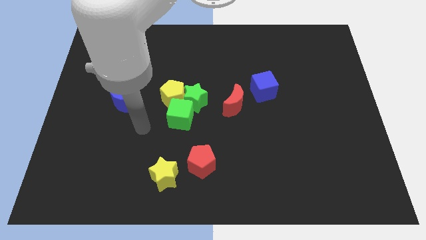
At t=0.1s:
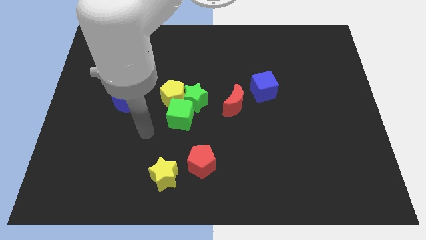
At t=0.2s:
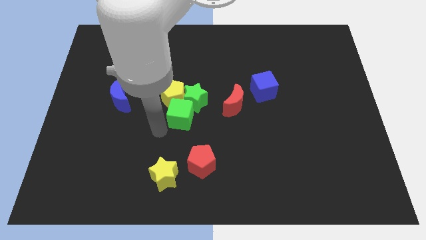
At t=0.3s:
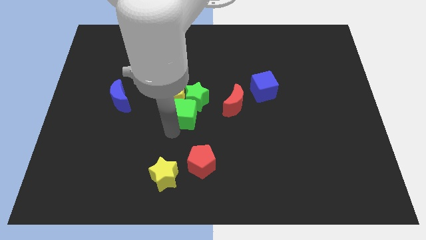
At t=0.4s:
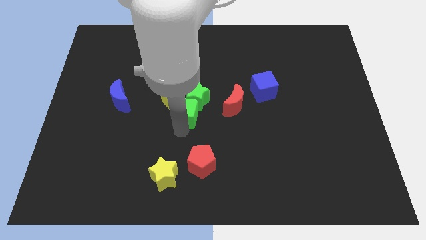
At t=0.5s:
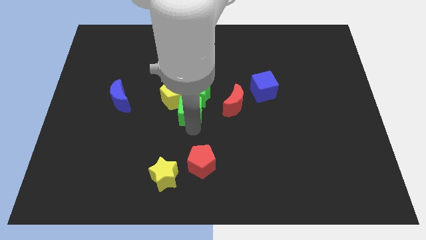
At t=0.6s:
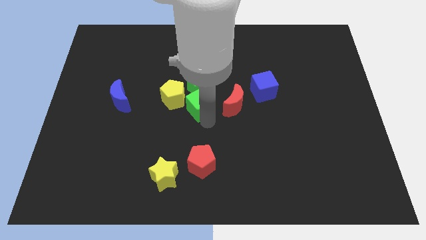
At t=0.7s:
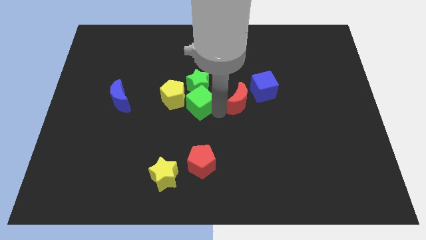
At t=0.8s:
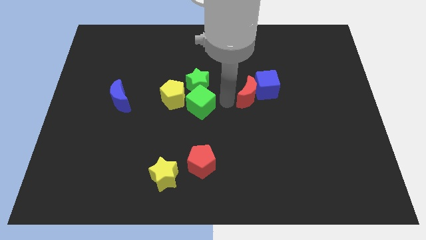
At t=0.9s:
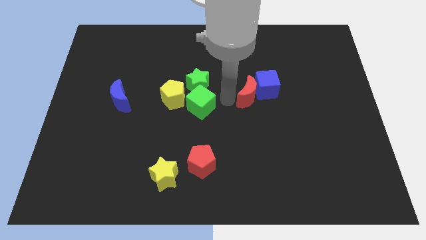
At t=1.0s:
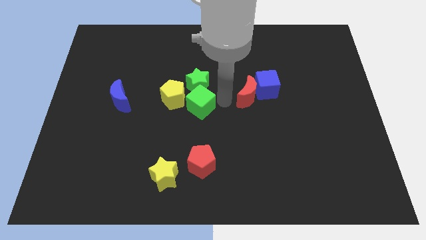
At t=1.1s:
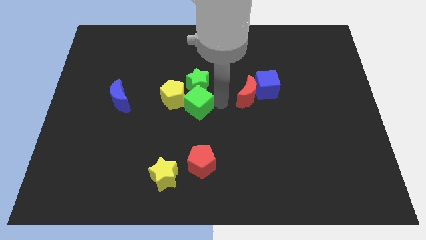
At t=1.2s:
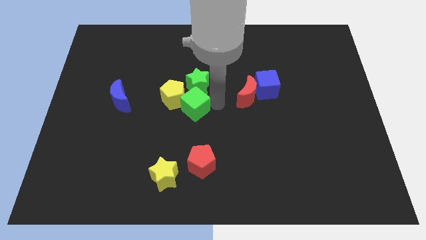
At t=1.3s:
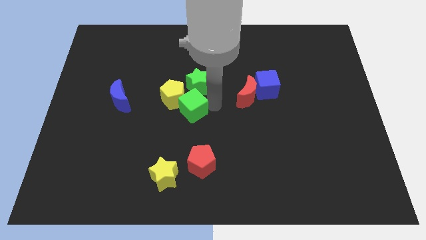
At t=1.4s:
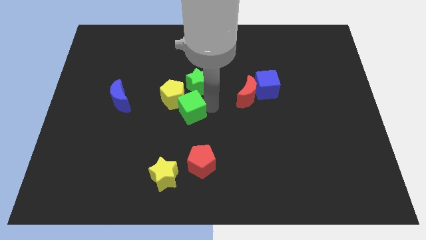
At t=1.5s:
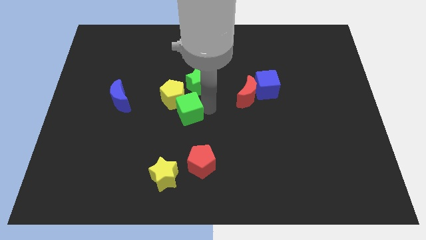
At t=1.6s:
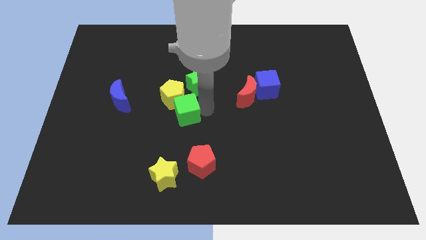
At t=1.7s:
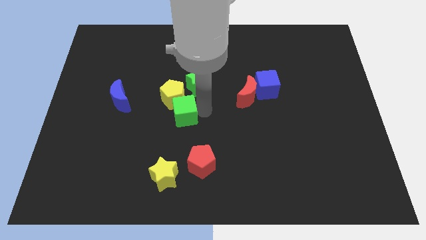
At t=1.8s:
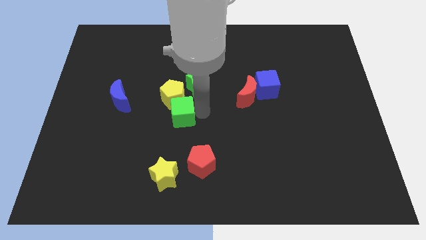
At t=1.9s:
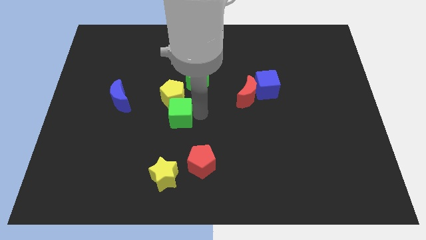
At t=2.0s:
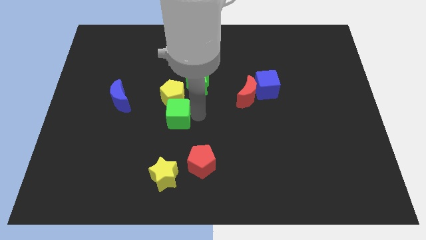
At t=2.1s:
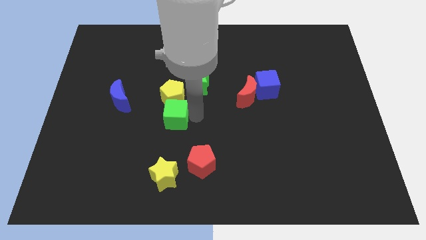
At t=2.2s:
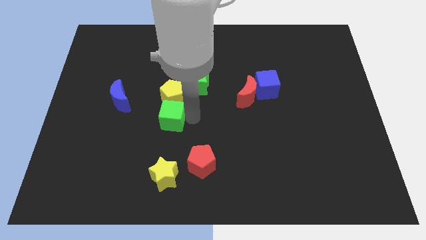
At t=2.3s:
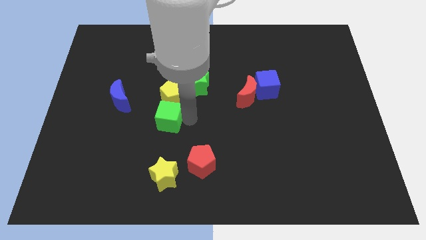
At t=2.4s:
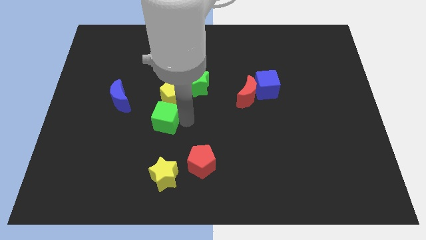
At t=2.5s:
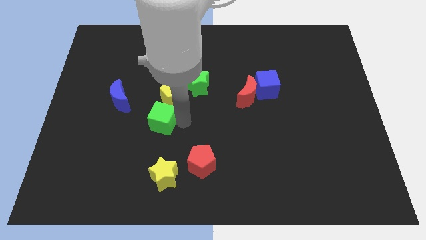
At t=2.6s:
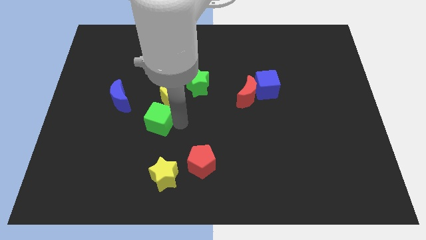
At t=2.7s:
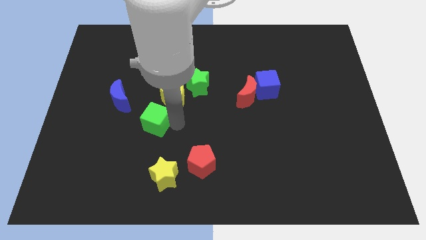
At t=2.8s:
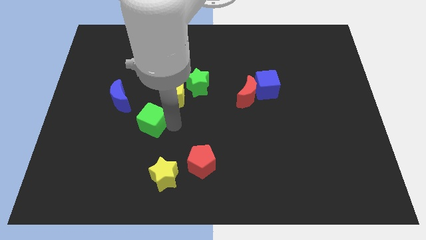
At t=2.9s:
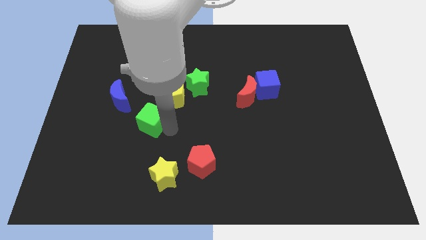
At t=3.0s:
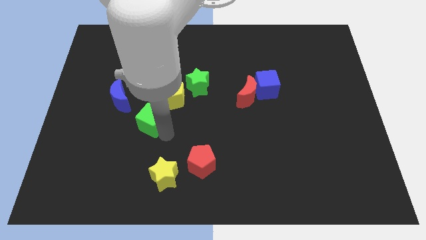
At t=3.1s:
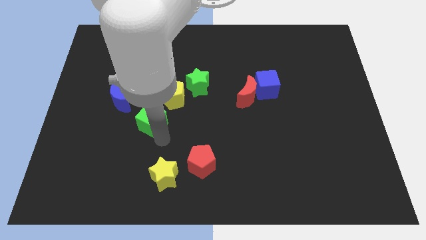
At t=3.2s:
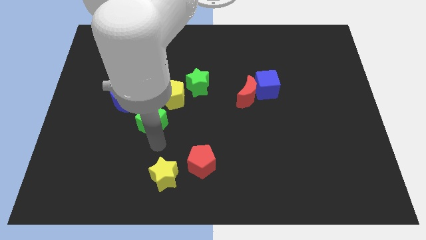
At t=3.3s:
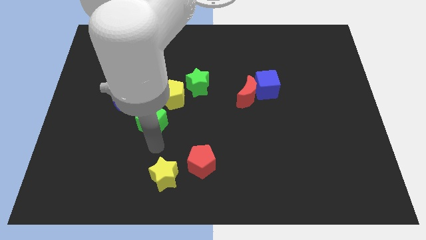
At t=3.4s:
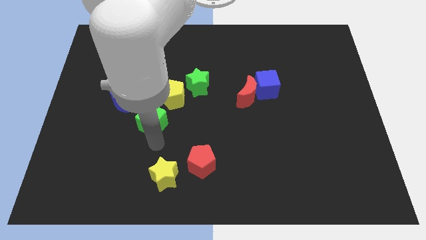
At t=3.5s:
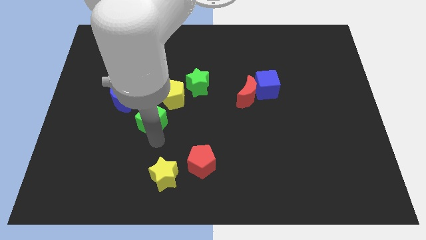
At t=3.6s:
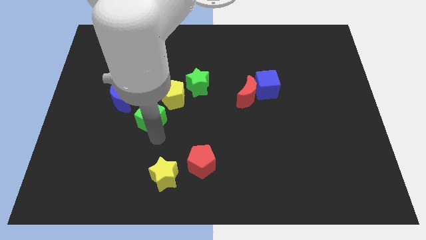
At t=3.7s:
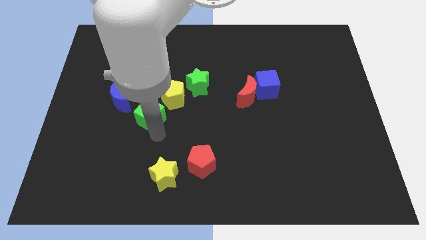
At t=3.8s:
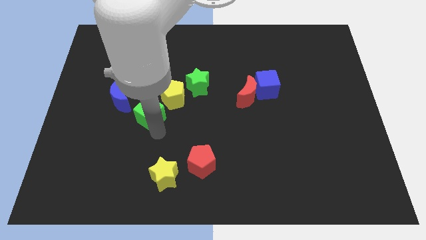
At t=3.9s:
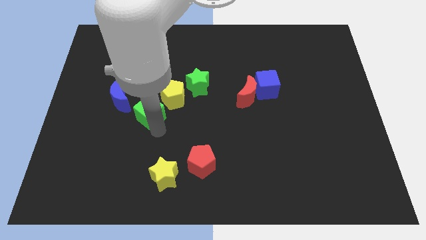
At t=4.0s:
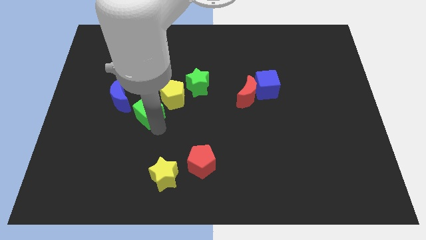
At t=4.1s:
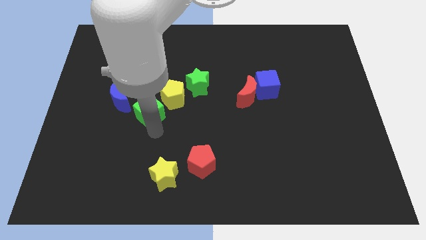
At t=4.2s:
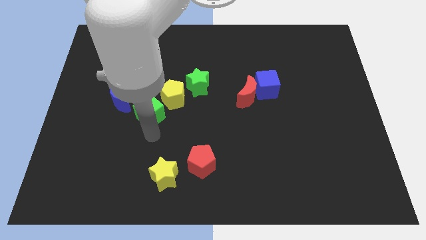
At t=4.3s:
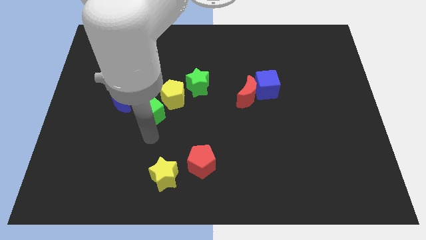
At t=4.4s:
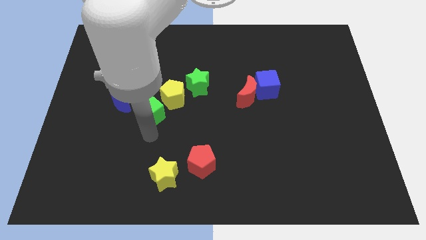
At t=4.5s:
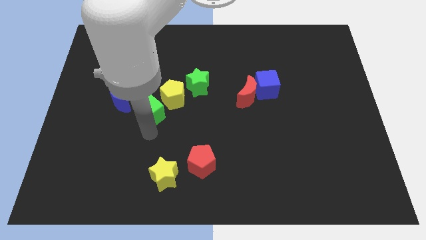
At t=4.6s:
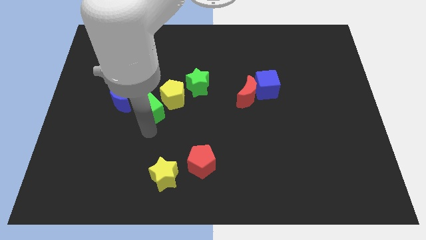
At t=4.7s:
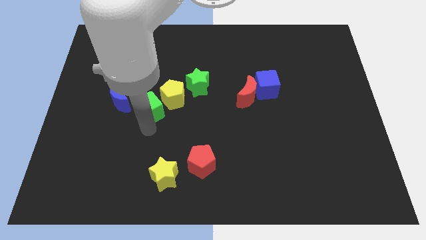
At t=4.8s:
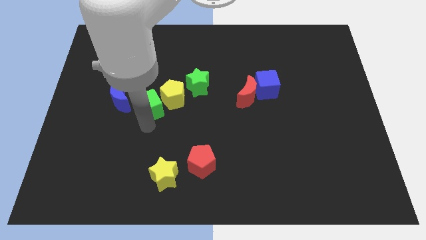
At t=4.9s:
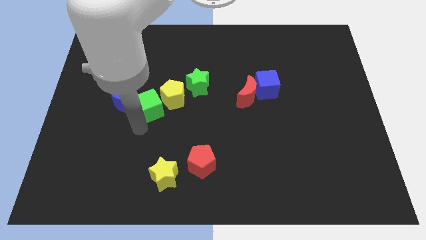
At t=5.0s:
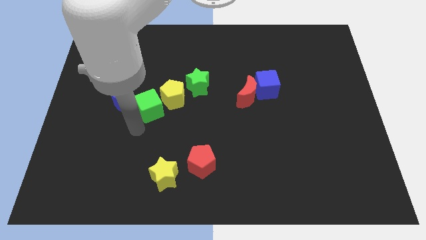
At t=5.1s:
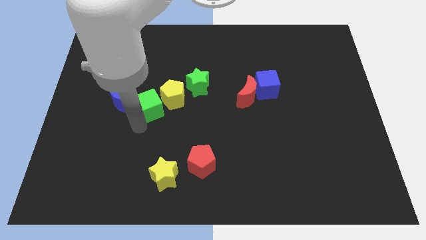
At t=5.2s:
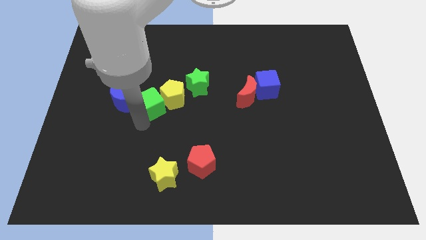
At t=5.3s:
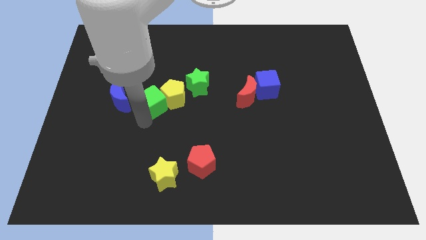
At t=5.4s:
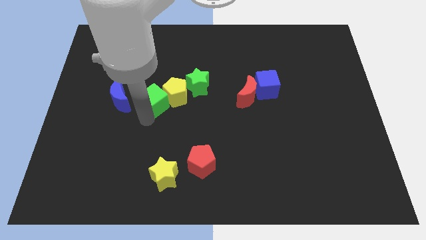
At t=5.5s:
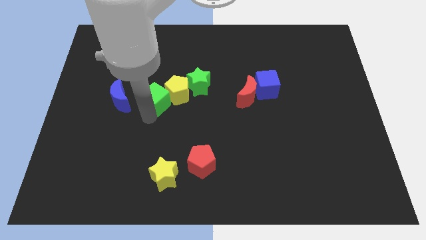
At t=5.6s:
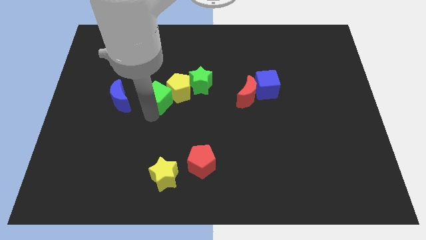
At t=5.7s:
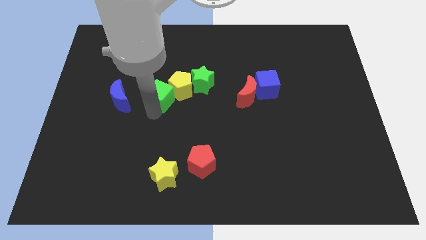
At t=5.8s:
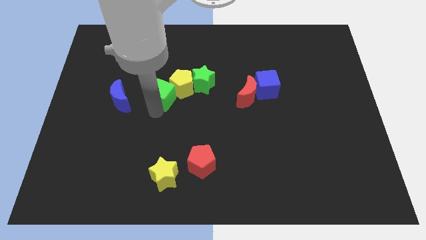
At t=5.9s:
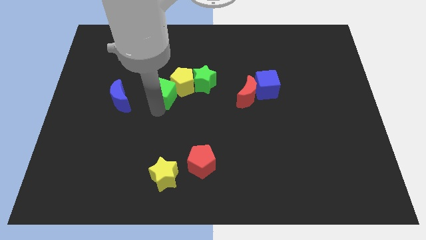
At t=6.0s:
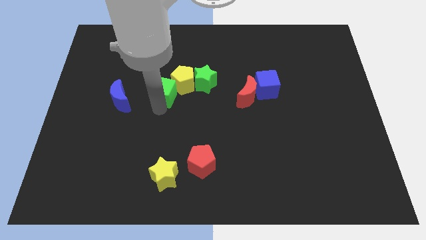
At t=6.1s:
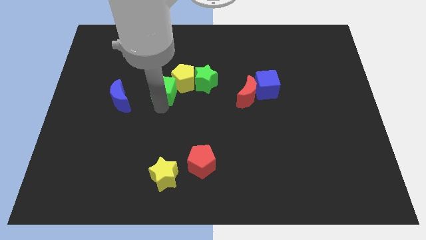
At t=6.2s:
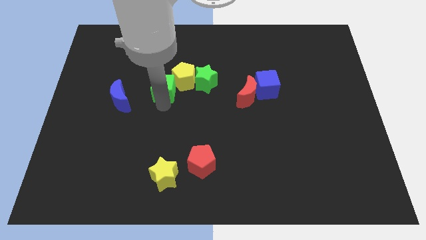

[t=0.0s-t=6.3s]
slide the green cube a little upwards

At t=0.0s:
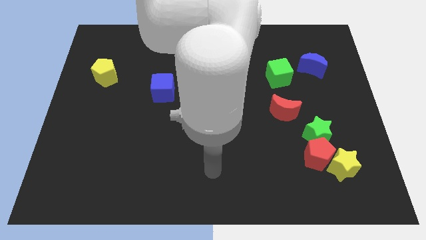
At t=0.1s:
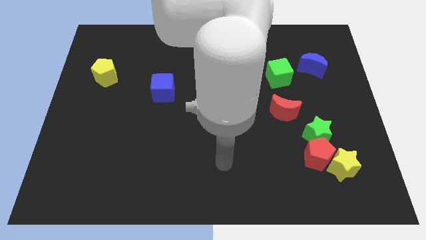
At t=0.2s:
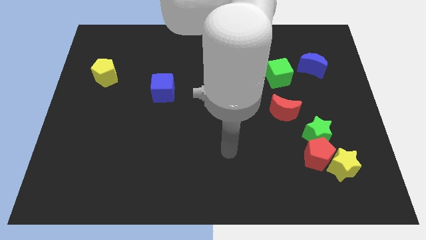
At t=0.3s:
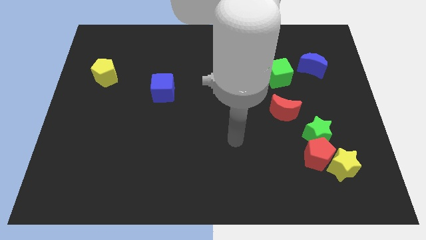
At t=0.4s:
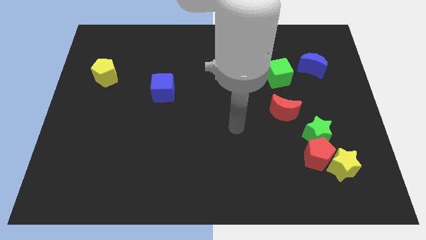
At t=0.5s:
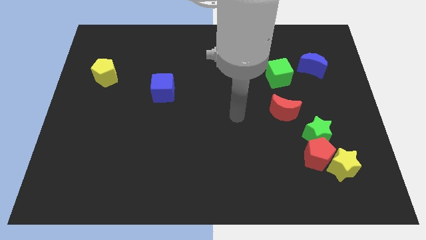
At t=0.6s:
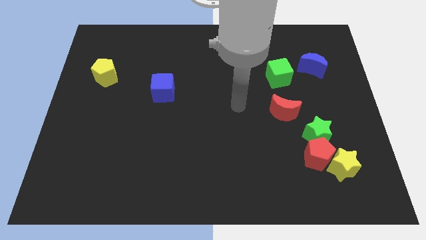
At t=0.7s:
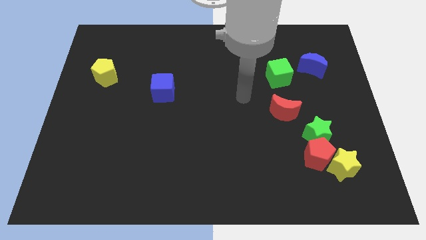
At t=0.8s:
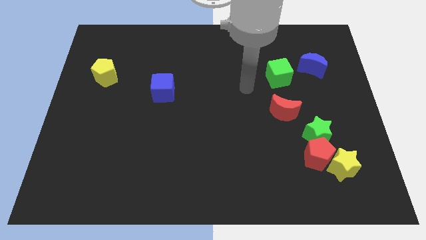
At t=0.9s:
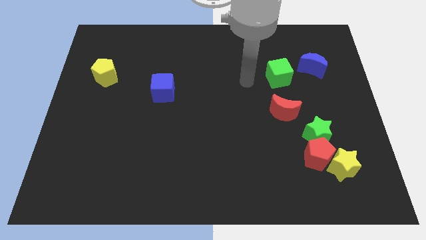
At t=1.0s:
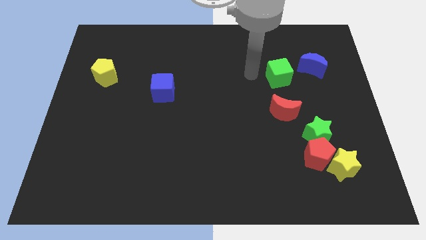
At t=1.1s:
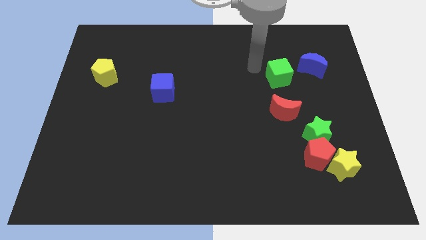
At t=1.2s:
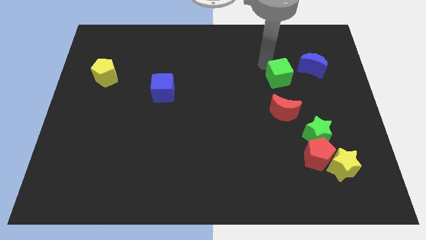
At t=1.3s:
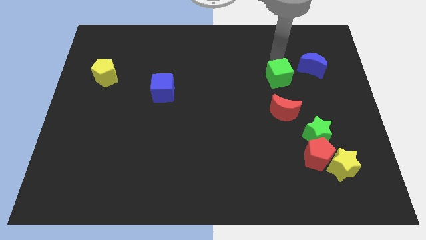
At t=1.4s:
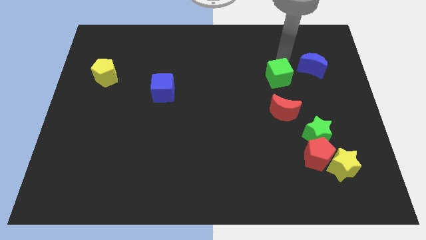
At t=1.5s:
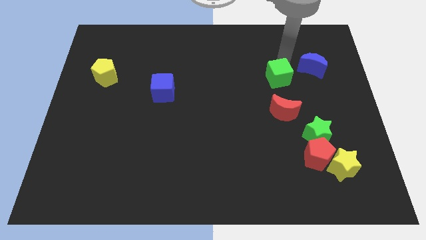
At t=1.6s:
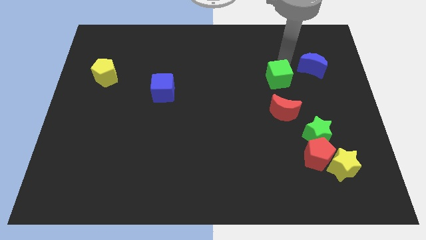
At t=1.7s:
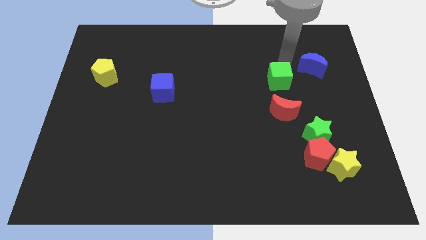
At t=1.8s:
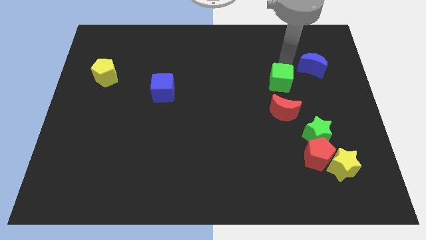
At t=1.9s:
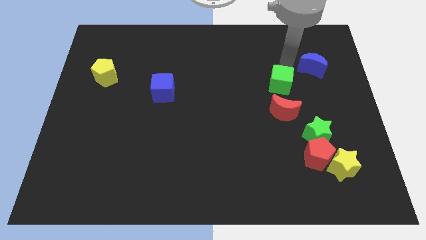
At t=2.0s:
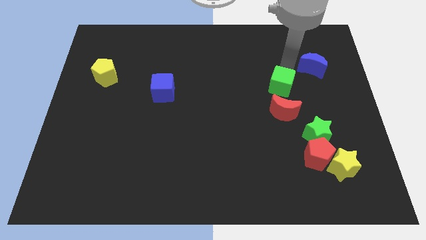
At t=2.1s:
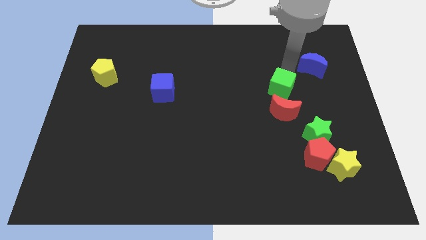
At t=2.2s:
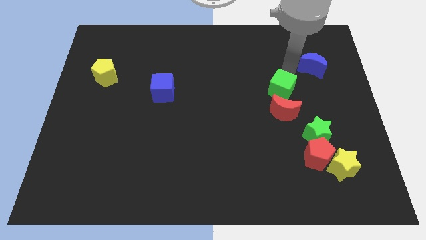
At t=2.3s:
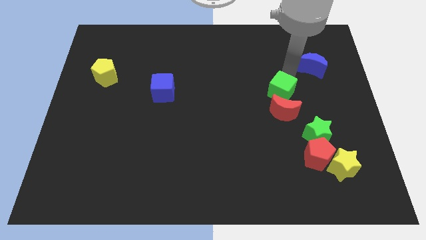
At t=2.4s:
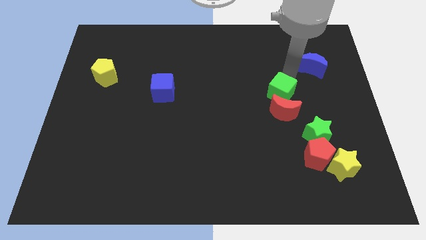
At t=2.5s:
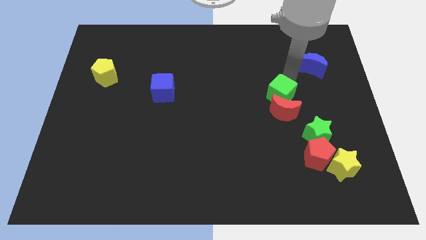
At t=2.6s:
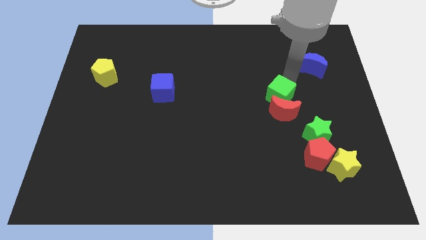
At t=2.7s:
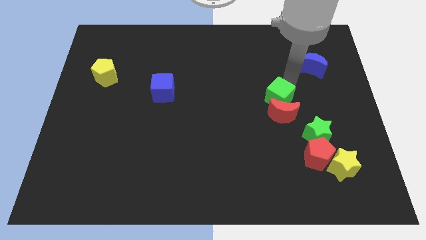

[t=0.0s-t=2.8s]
move the green cube down a little
